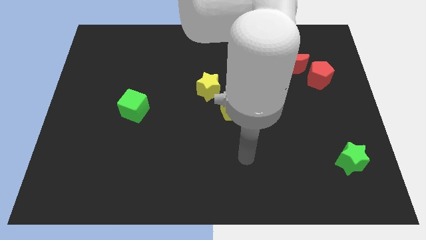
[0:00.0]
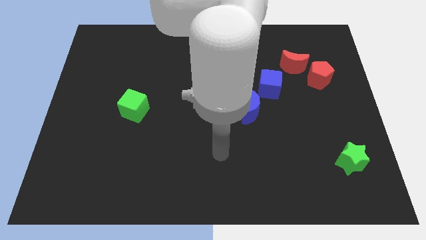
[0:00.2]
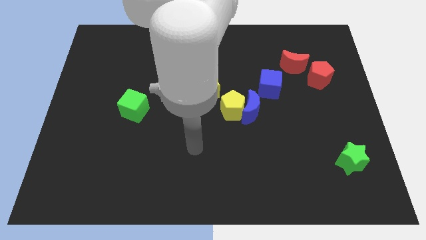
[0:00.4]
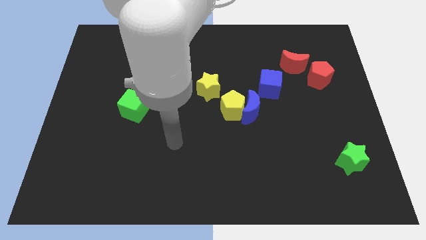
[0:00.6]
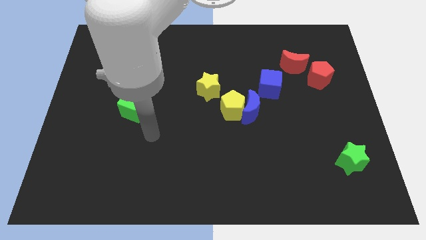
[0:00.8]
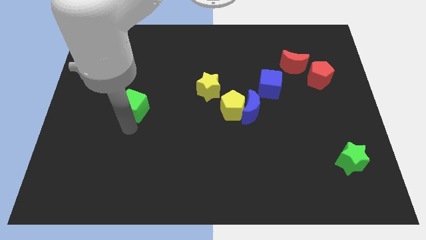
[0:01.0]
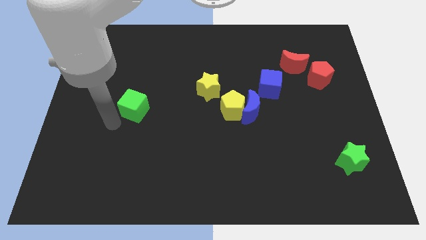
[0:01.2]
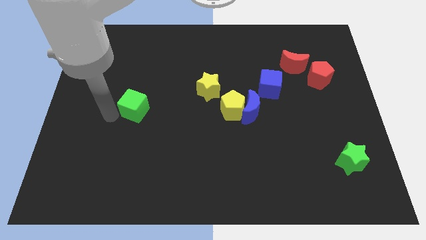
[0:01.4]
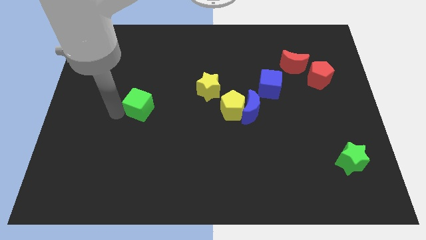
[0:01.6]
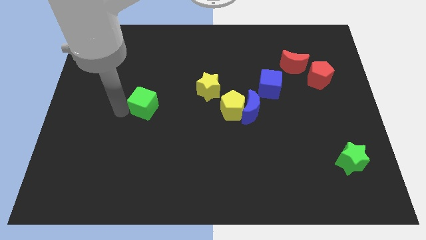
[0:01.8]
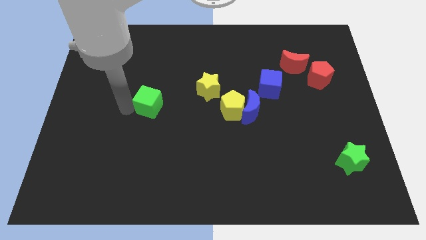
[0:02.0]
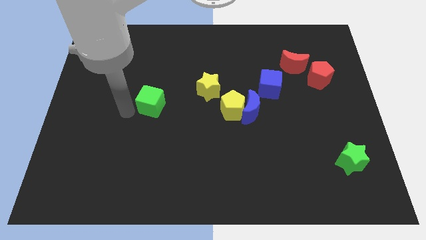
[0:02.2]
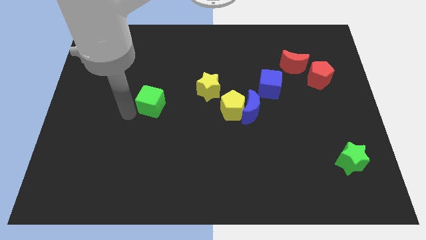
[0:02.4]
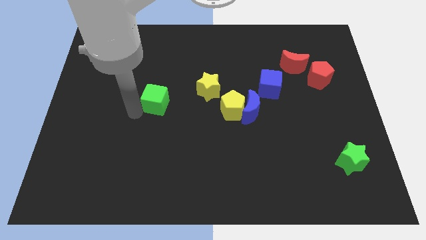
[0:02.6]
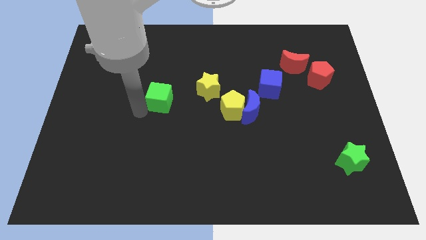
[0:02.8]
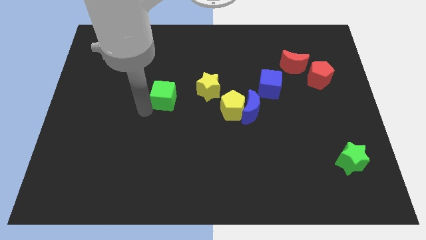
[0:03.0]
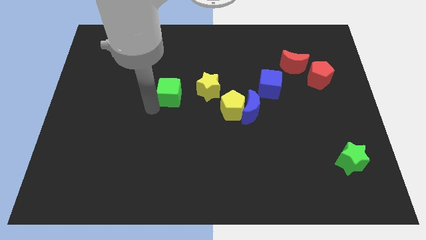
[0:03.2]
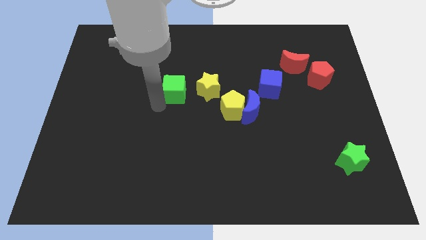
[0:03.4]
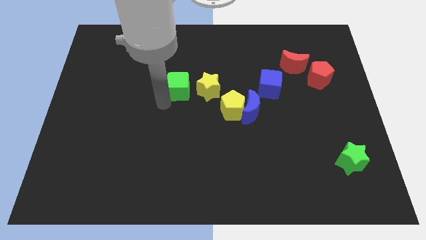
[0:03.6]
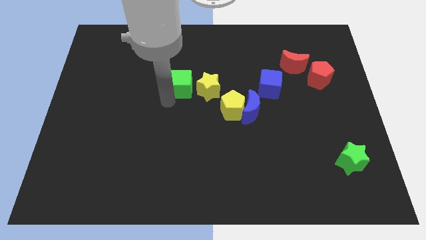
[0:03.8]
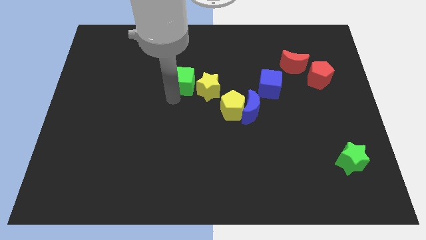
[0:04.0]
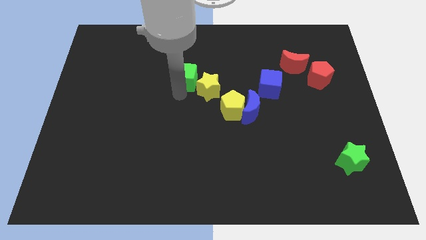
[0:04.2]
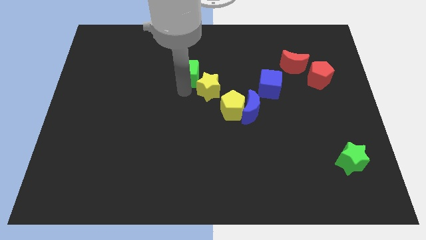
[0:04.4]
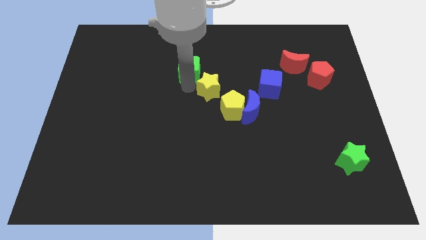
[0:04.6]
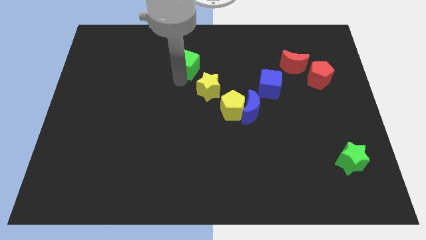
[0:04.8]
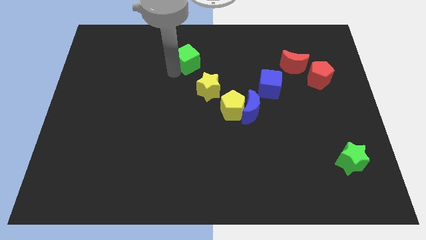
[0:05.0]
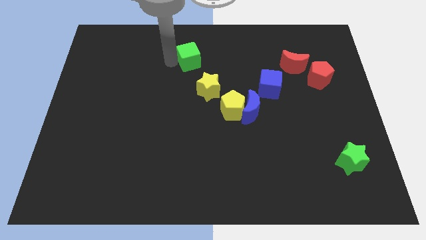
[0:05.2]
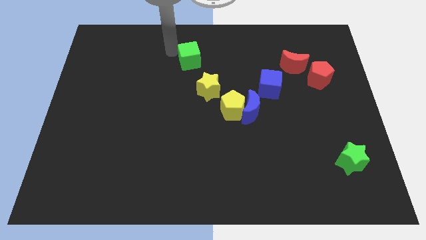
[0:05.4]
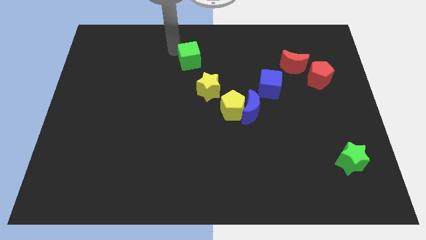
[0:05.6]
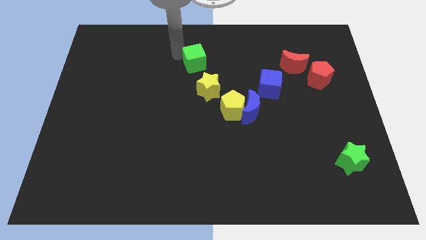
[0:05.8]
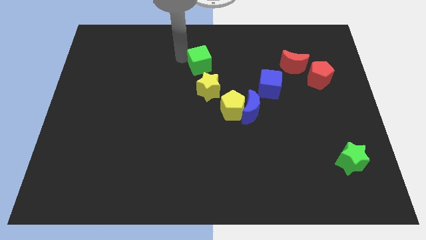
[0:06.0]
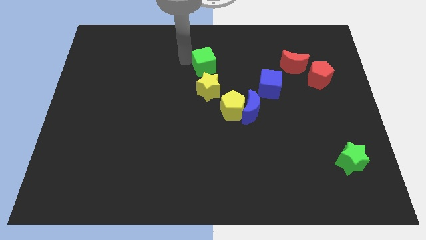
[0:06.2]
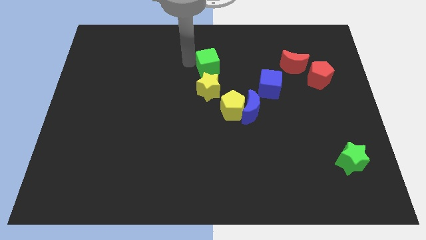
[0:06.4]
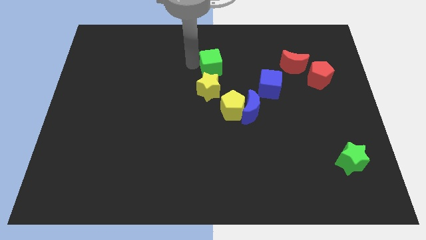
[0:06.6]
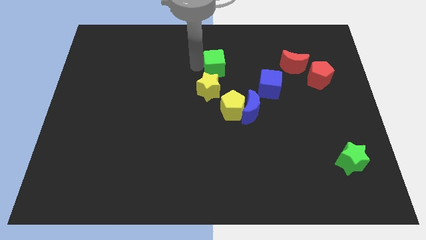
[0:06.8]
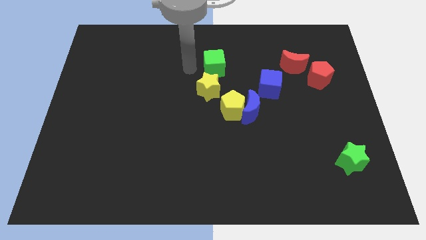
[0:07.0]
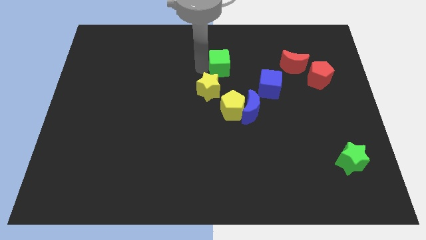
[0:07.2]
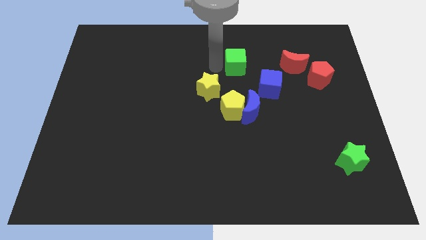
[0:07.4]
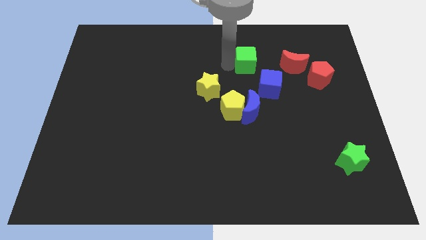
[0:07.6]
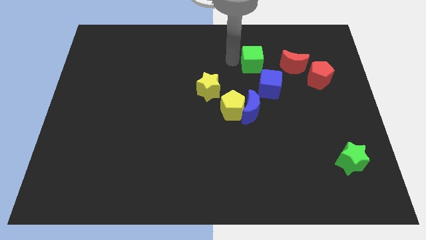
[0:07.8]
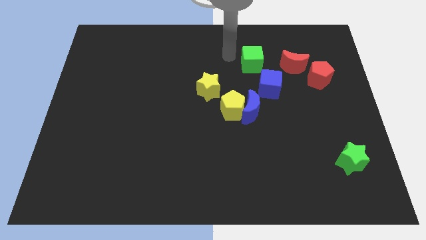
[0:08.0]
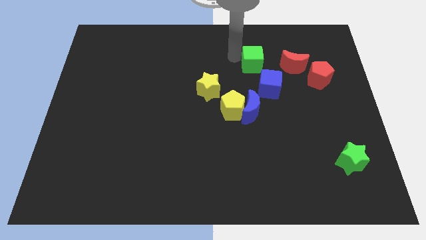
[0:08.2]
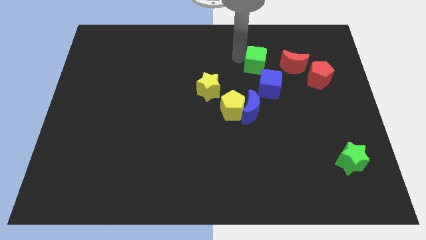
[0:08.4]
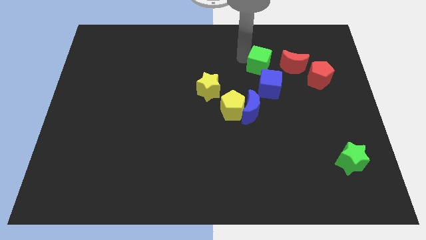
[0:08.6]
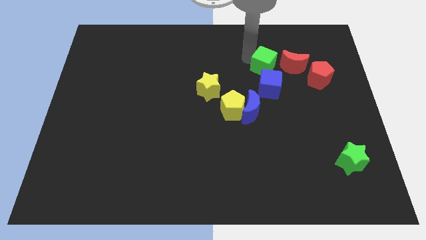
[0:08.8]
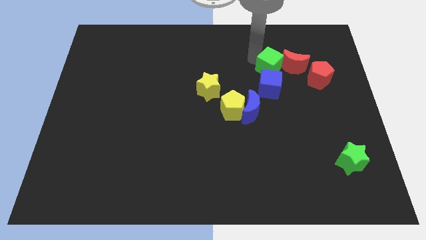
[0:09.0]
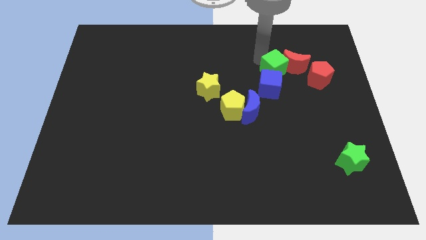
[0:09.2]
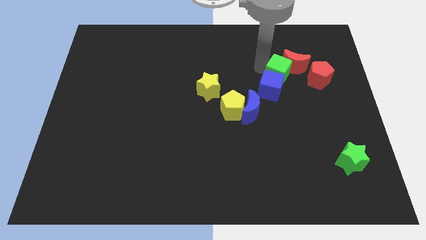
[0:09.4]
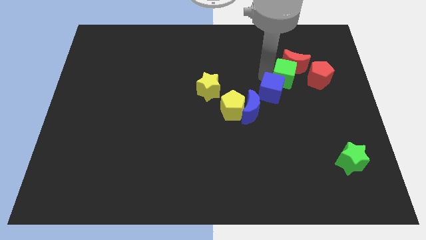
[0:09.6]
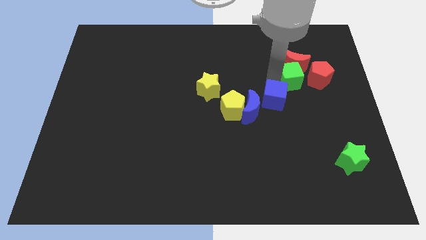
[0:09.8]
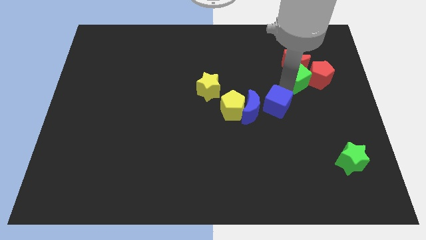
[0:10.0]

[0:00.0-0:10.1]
push the green cube to the top left side of the red pentagon

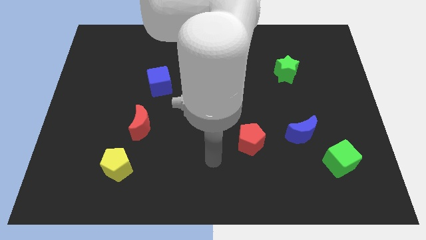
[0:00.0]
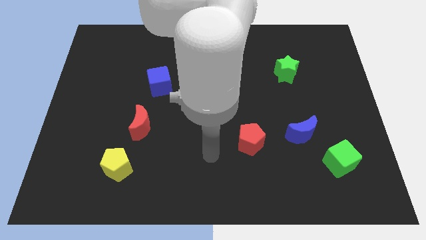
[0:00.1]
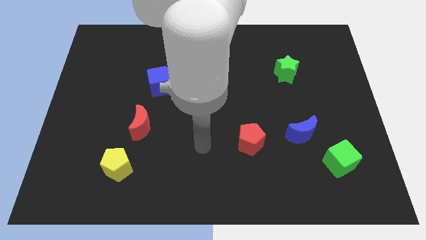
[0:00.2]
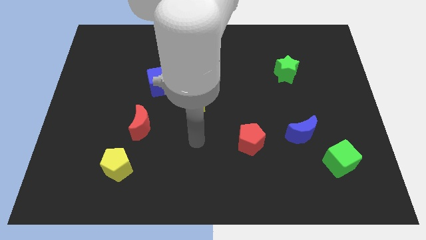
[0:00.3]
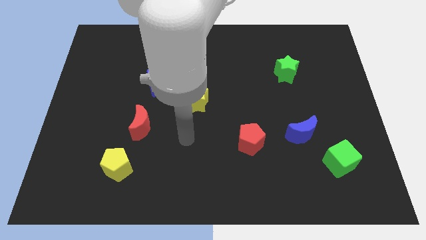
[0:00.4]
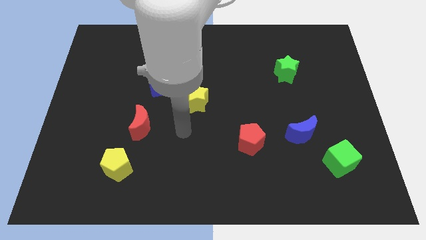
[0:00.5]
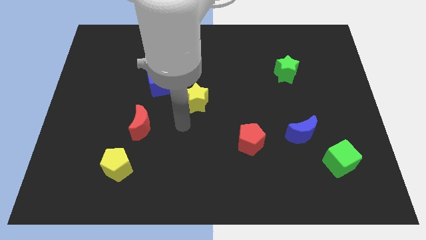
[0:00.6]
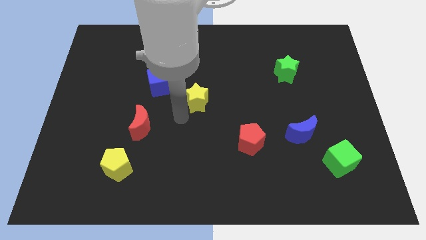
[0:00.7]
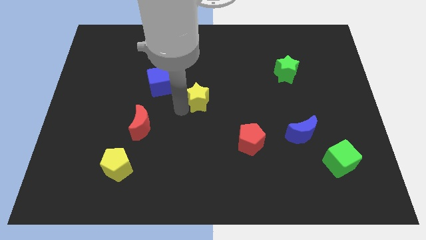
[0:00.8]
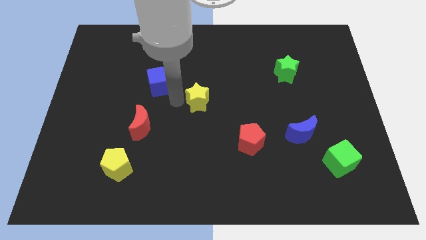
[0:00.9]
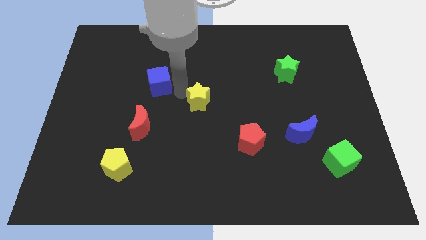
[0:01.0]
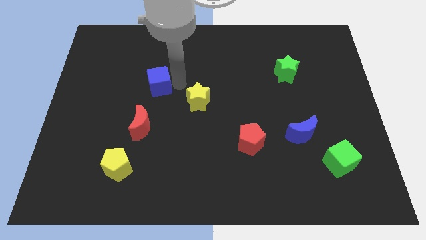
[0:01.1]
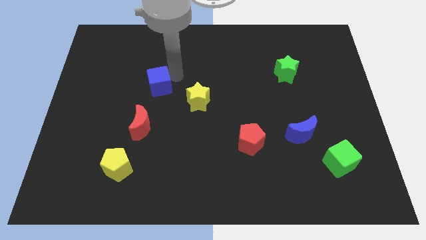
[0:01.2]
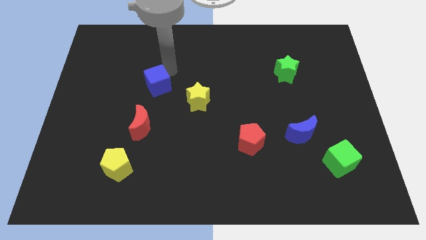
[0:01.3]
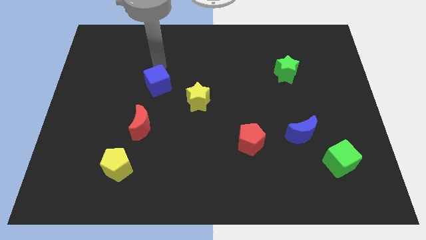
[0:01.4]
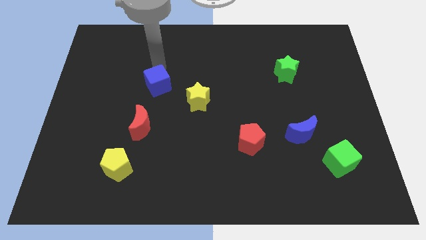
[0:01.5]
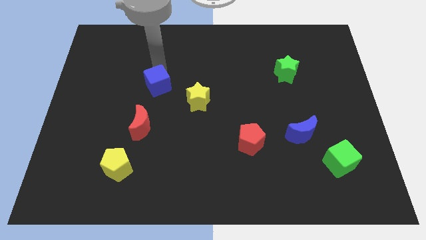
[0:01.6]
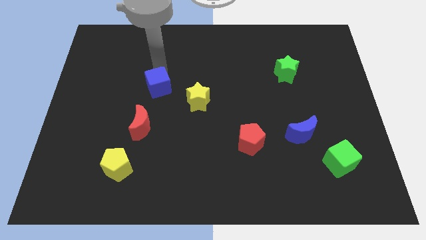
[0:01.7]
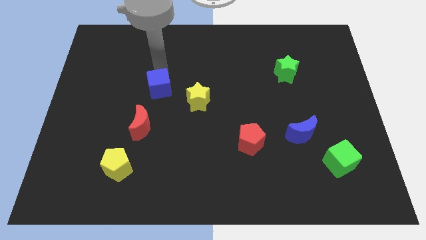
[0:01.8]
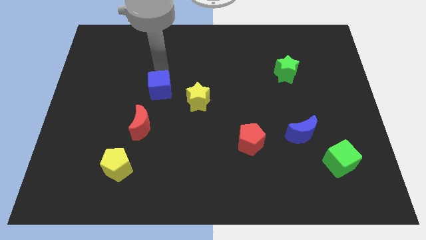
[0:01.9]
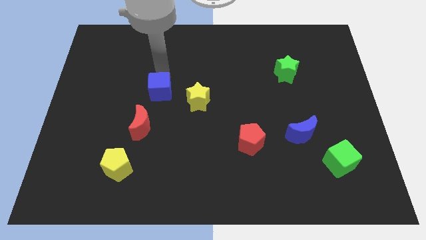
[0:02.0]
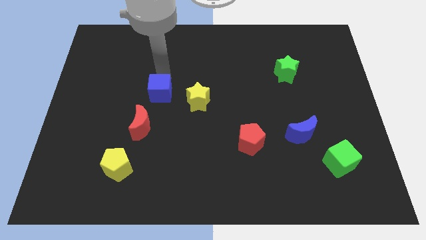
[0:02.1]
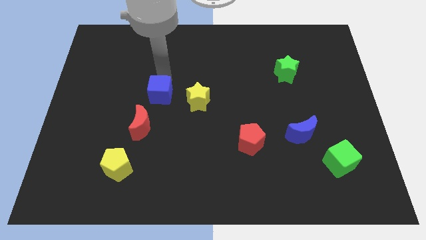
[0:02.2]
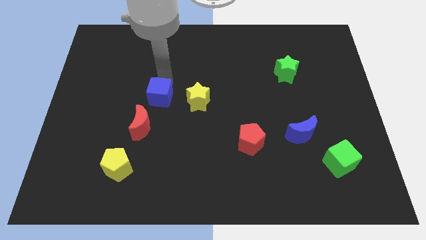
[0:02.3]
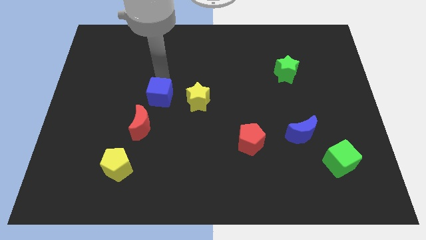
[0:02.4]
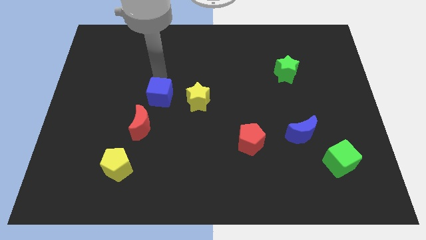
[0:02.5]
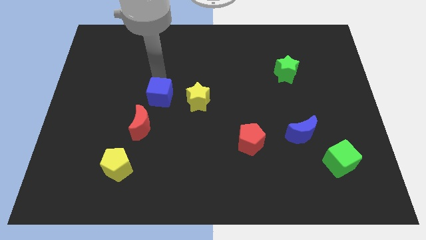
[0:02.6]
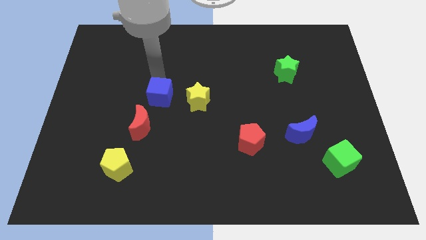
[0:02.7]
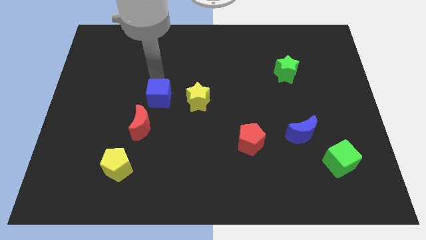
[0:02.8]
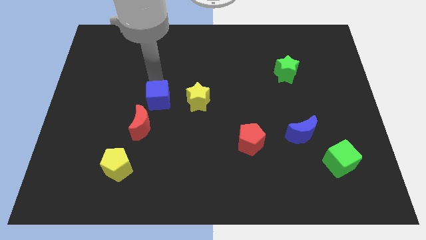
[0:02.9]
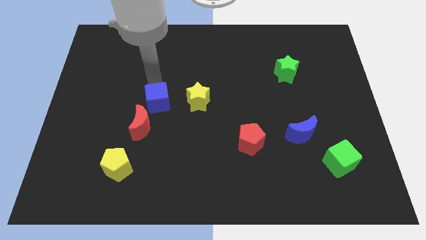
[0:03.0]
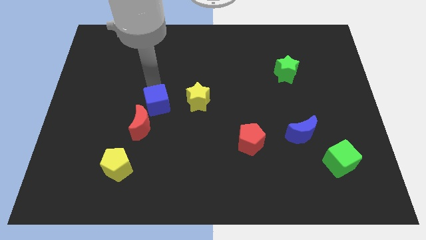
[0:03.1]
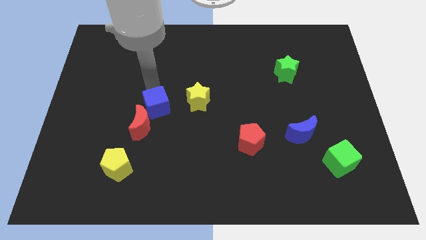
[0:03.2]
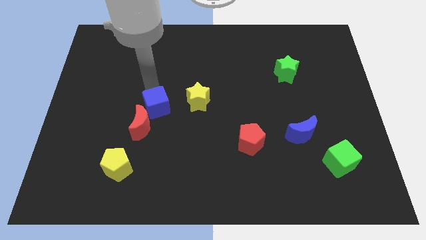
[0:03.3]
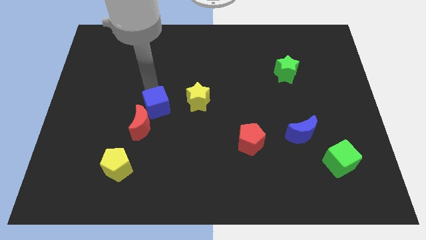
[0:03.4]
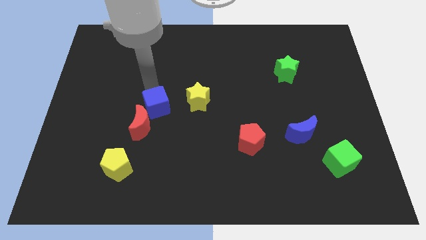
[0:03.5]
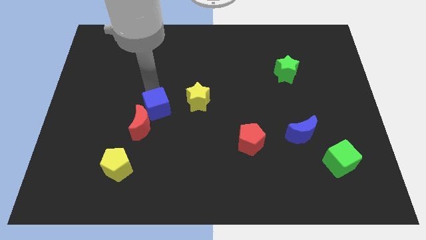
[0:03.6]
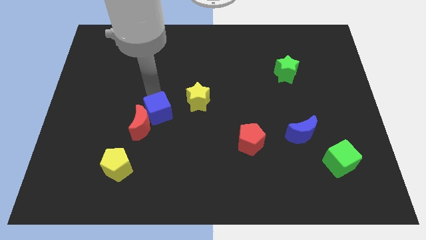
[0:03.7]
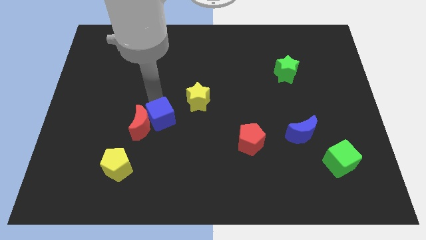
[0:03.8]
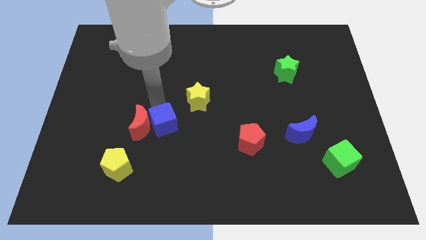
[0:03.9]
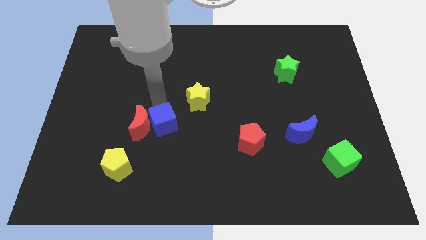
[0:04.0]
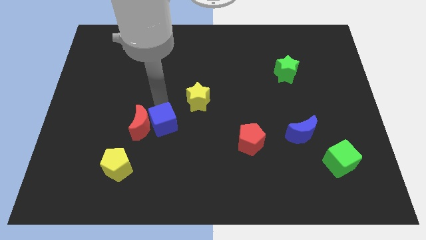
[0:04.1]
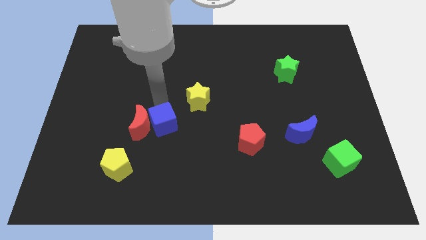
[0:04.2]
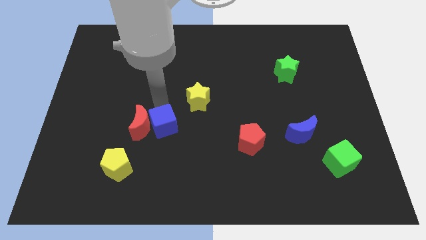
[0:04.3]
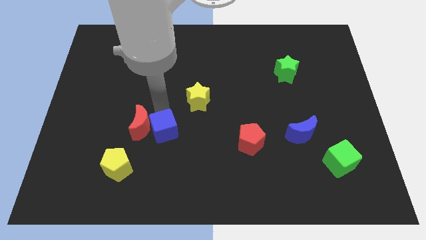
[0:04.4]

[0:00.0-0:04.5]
slide the blue cube diagonally up and to the right of the yellow pentagon
